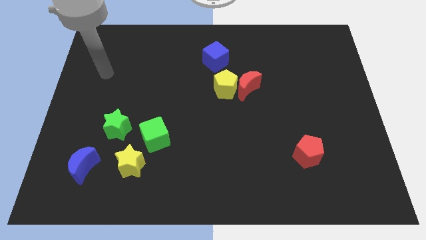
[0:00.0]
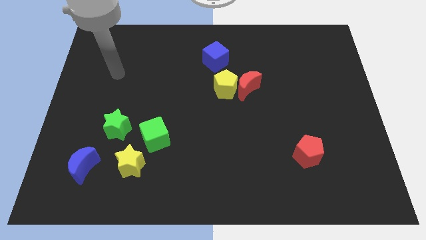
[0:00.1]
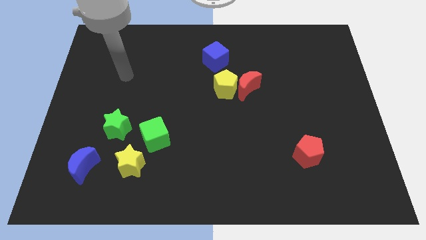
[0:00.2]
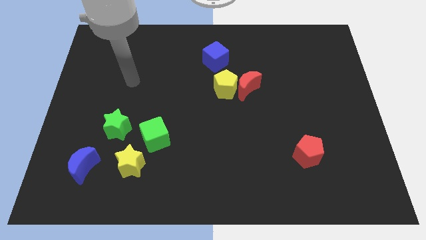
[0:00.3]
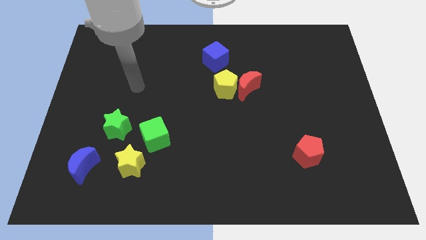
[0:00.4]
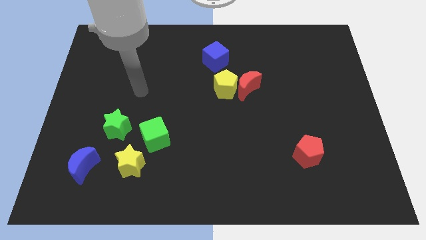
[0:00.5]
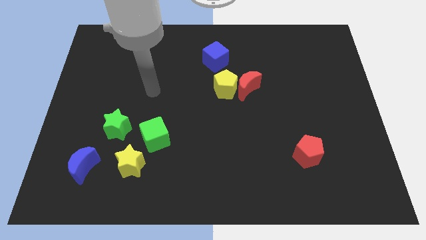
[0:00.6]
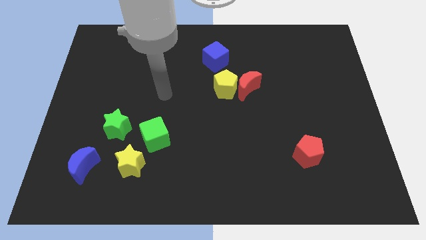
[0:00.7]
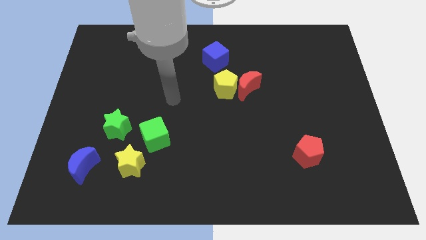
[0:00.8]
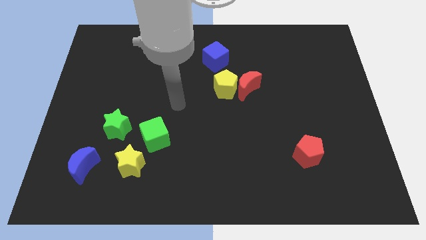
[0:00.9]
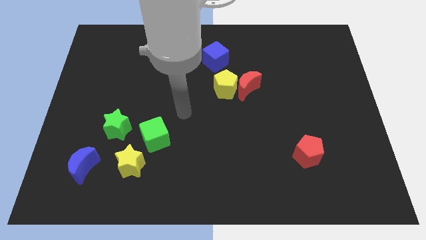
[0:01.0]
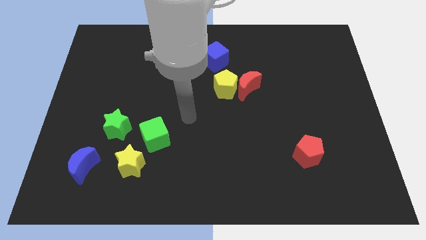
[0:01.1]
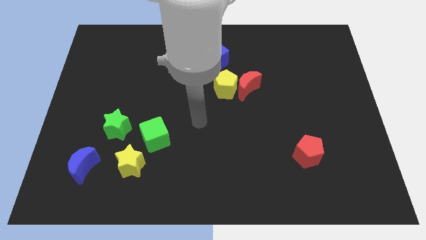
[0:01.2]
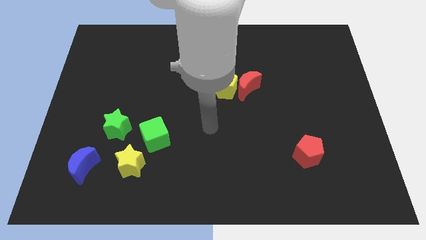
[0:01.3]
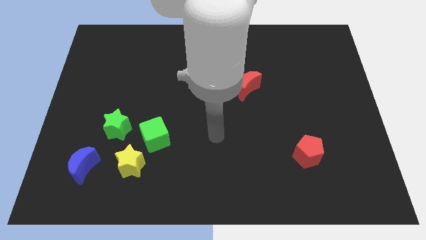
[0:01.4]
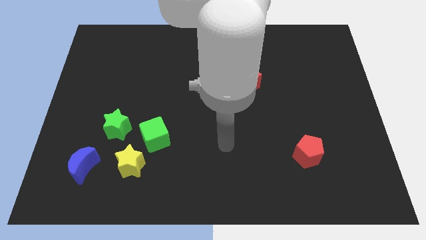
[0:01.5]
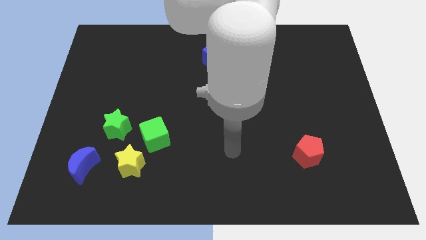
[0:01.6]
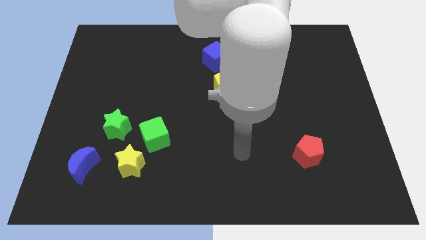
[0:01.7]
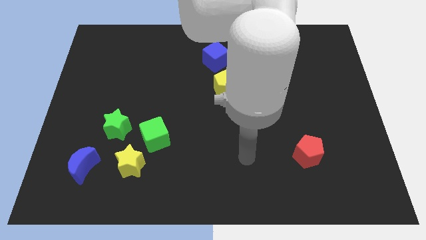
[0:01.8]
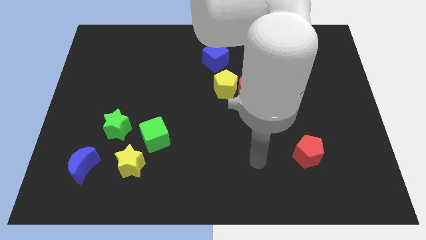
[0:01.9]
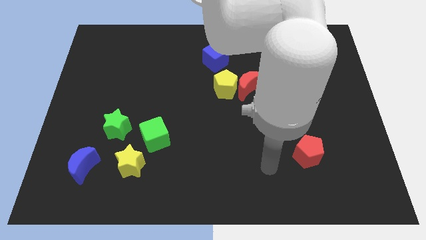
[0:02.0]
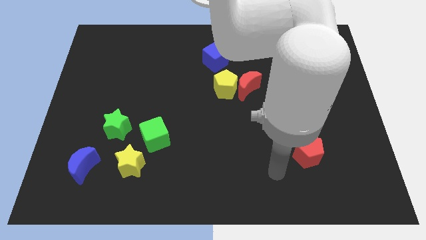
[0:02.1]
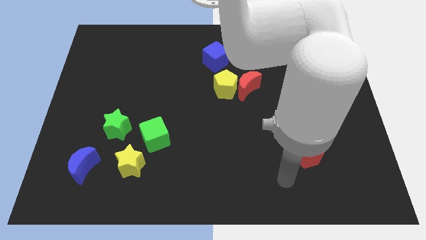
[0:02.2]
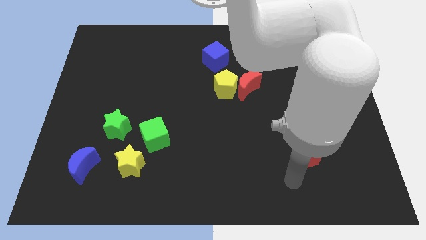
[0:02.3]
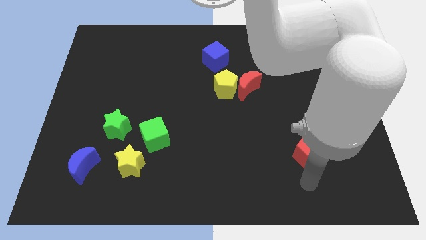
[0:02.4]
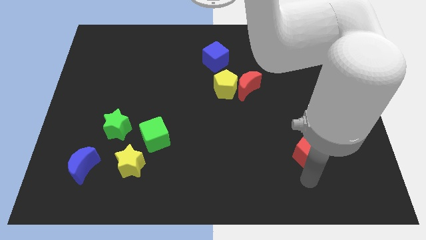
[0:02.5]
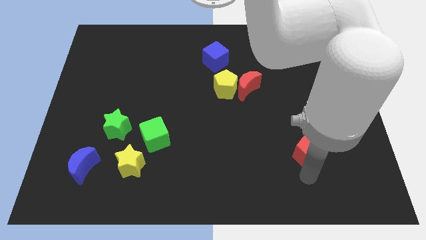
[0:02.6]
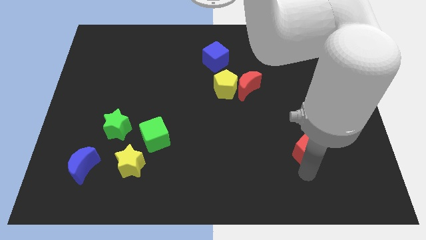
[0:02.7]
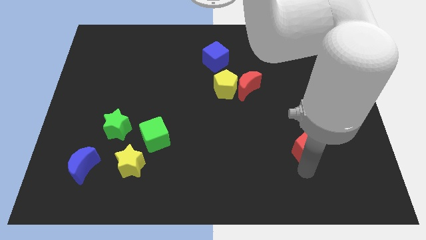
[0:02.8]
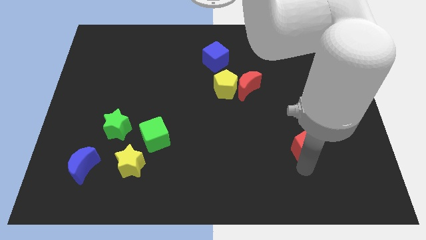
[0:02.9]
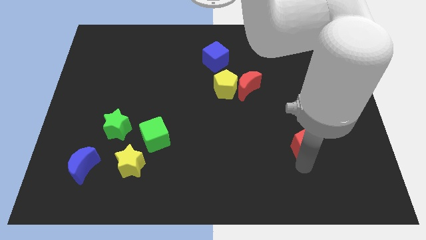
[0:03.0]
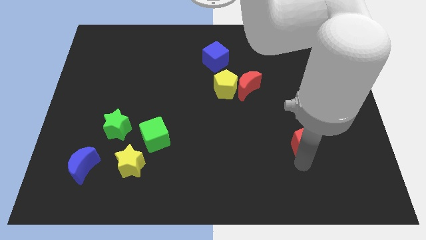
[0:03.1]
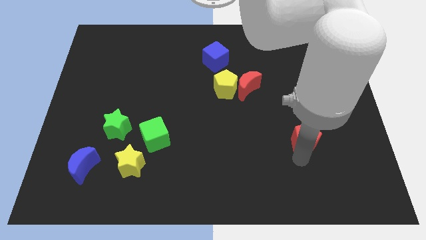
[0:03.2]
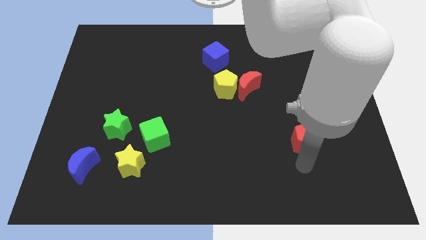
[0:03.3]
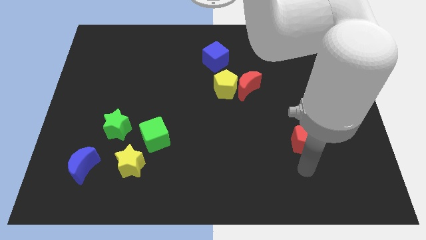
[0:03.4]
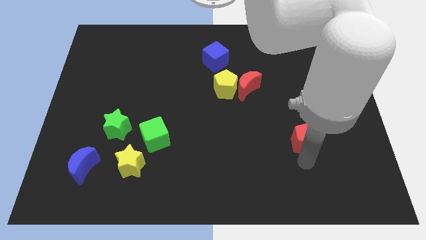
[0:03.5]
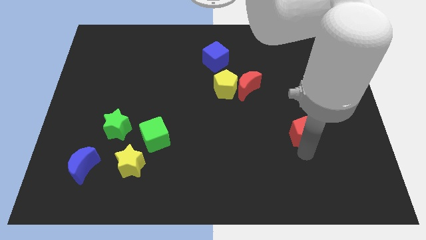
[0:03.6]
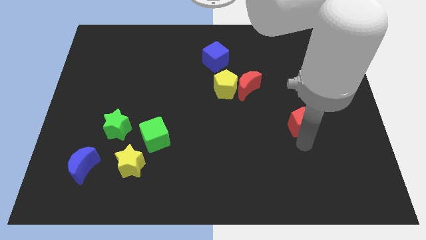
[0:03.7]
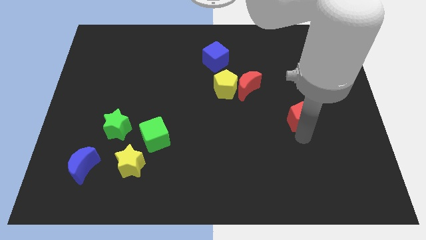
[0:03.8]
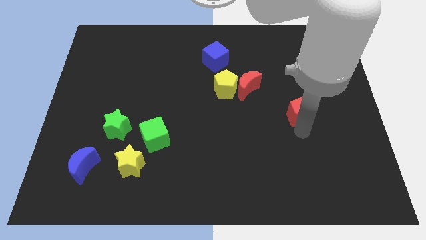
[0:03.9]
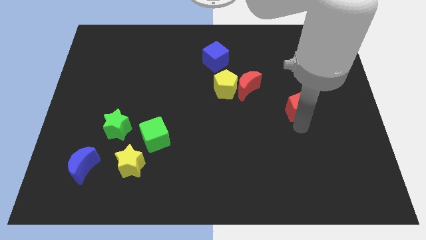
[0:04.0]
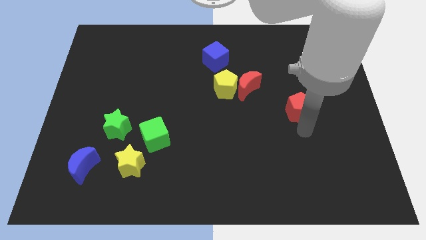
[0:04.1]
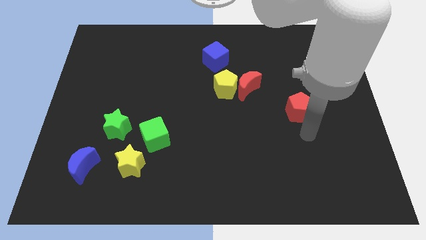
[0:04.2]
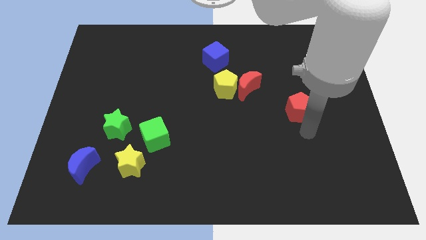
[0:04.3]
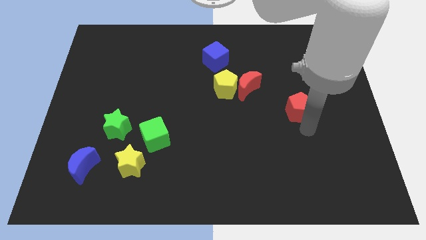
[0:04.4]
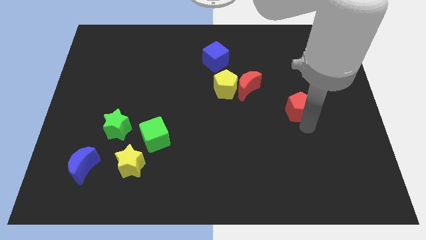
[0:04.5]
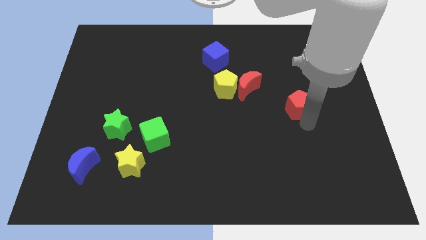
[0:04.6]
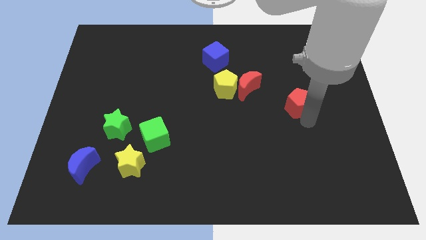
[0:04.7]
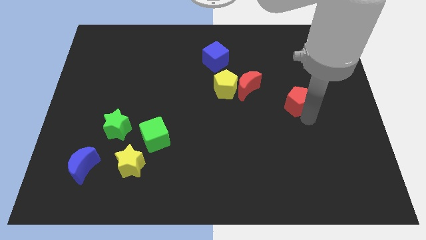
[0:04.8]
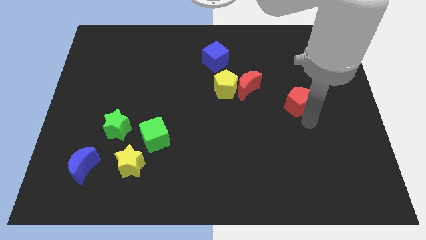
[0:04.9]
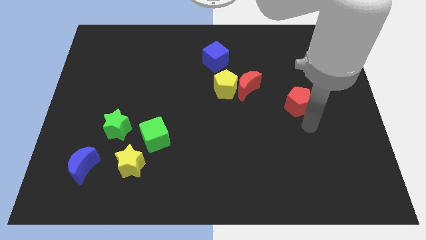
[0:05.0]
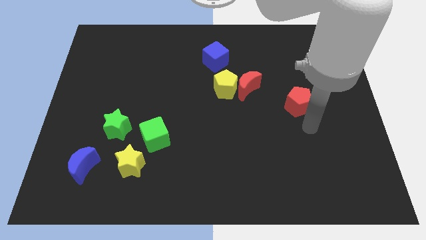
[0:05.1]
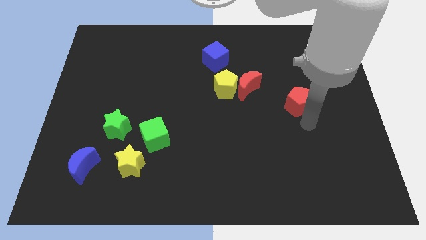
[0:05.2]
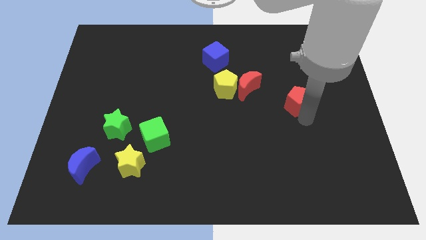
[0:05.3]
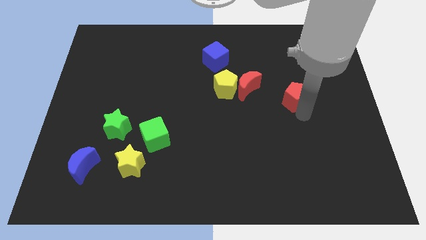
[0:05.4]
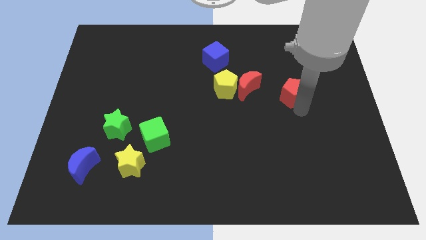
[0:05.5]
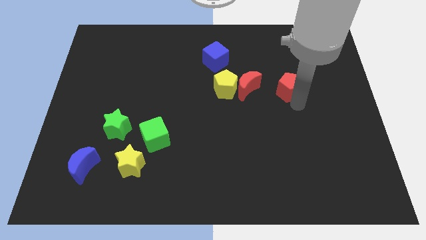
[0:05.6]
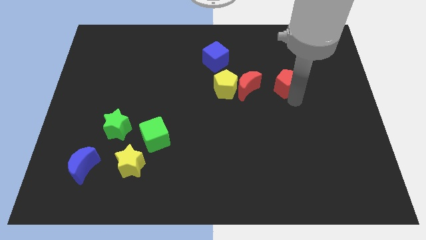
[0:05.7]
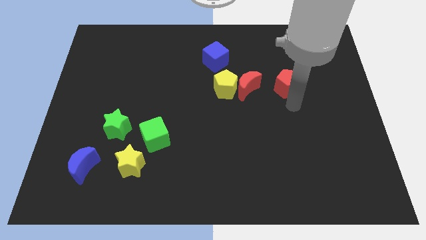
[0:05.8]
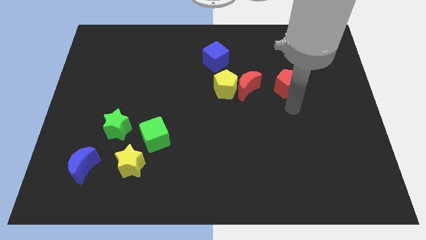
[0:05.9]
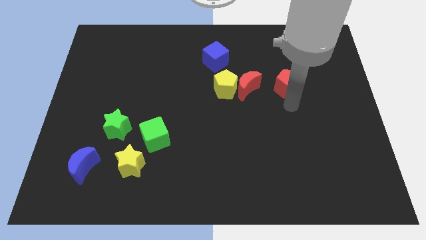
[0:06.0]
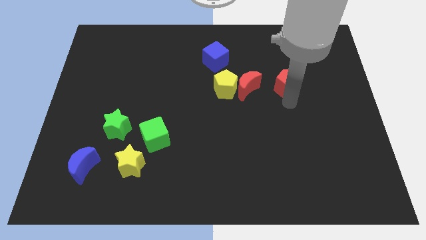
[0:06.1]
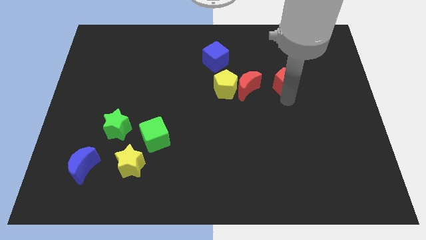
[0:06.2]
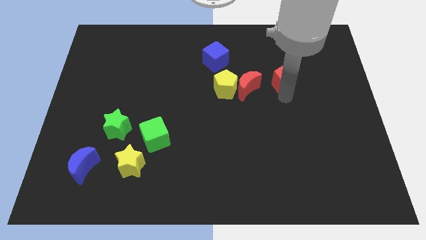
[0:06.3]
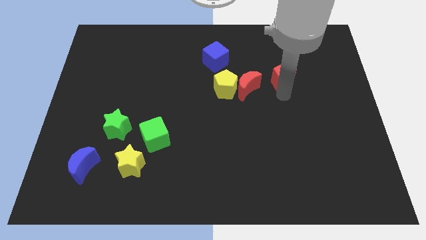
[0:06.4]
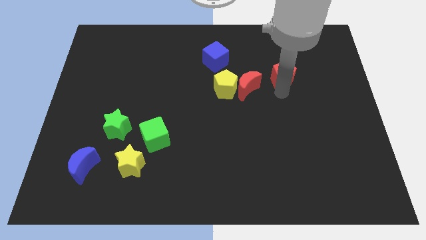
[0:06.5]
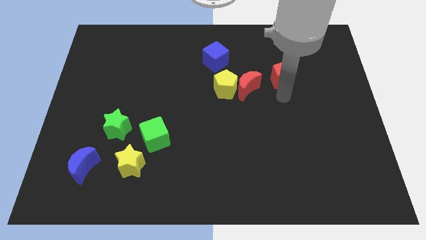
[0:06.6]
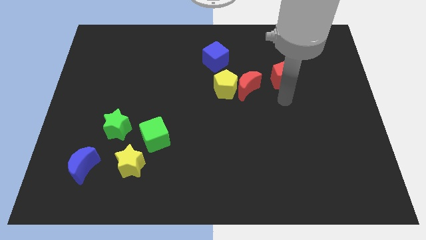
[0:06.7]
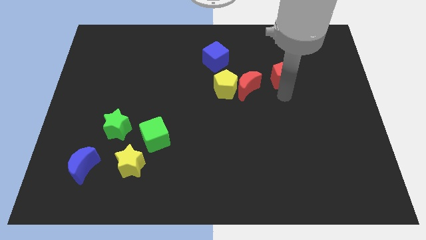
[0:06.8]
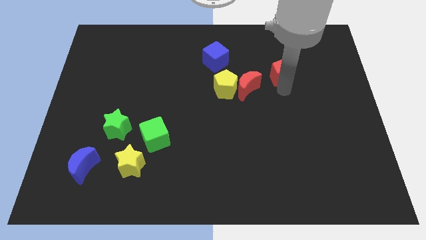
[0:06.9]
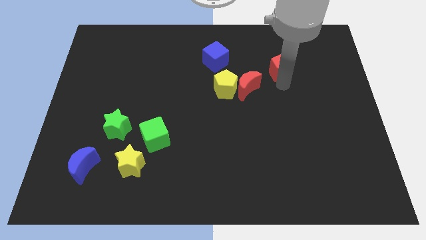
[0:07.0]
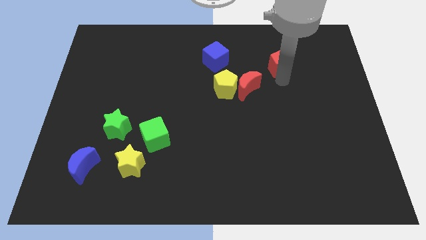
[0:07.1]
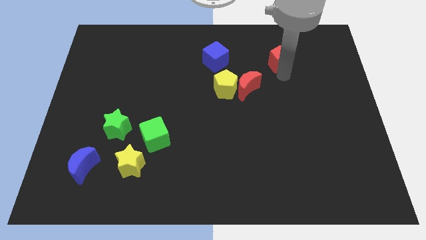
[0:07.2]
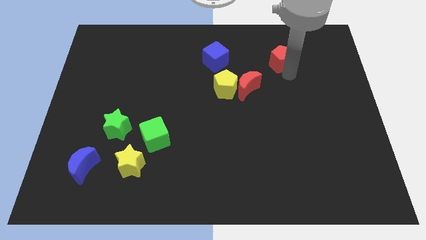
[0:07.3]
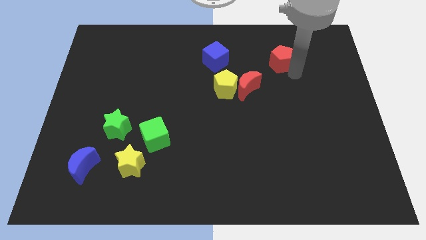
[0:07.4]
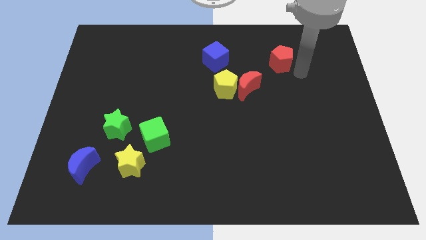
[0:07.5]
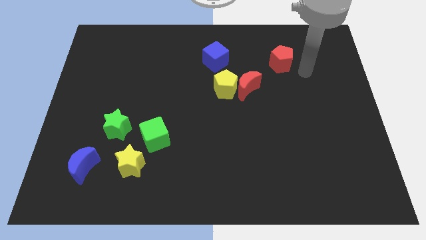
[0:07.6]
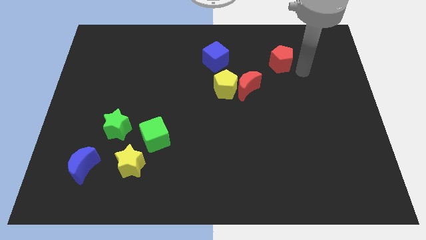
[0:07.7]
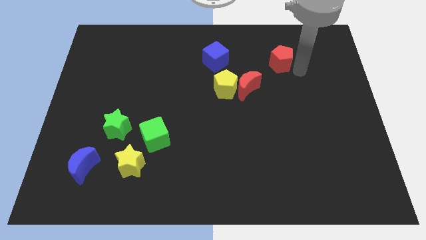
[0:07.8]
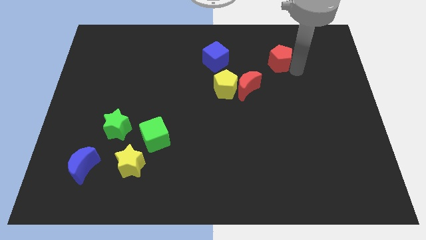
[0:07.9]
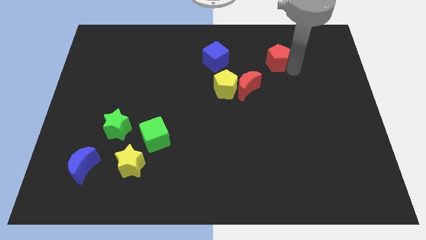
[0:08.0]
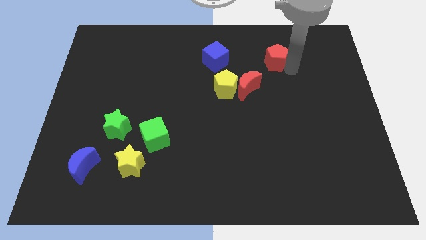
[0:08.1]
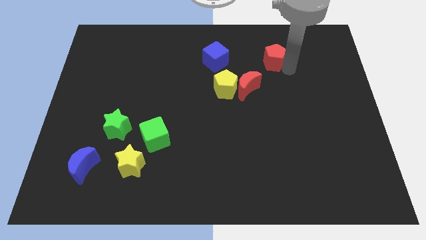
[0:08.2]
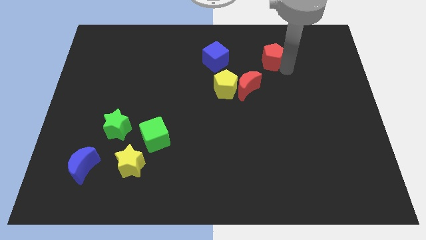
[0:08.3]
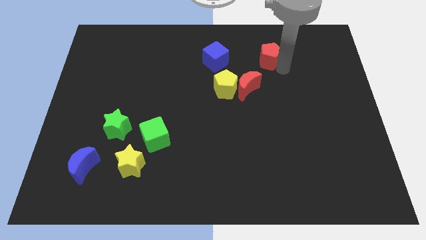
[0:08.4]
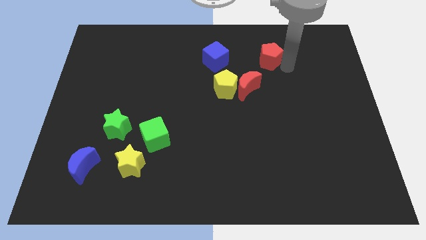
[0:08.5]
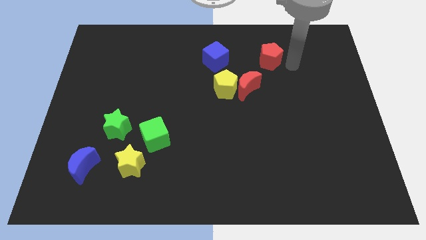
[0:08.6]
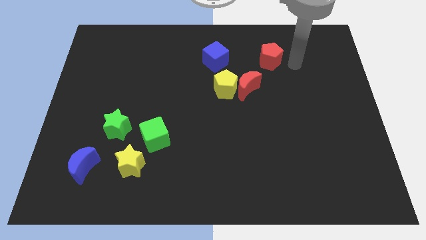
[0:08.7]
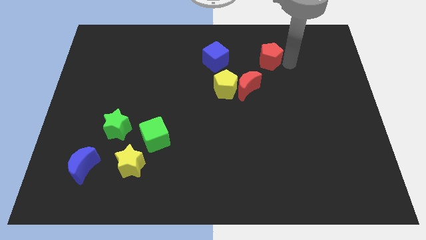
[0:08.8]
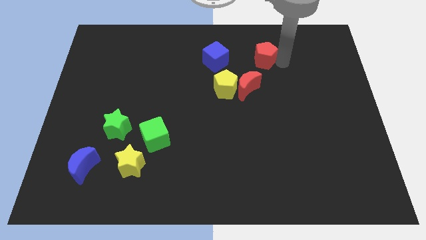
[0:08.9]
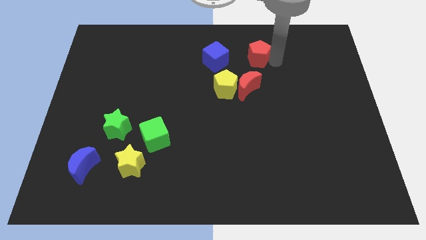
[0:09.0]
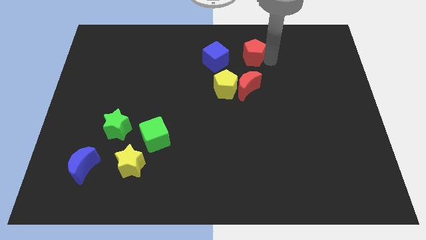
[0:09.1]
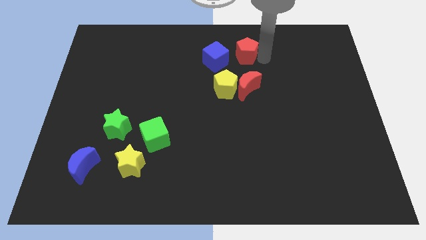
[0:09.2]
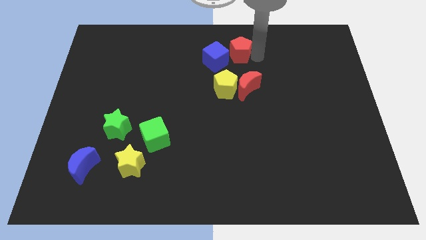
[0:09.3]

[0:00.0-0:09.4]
put the red pentagon to the top side of the yellow pentagon
